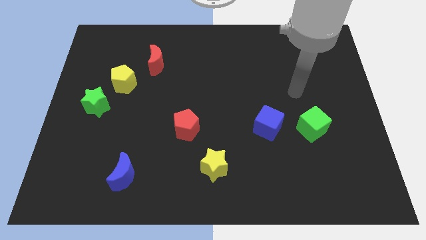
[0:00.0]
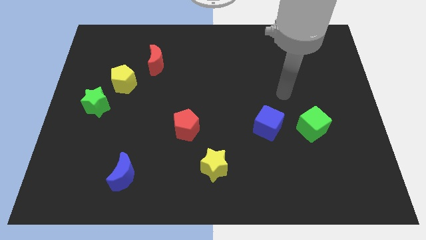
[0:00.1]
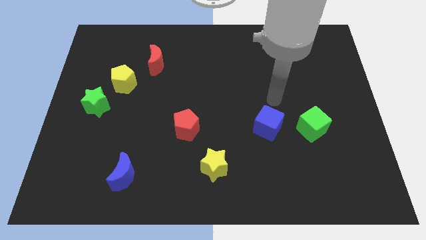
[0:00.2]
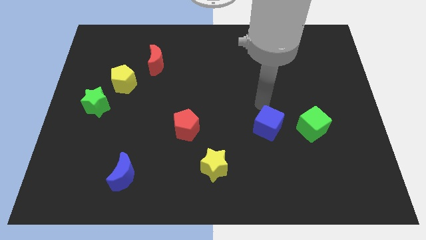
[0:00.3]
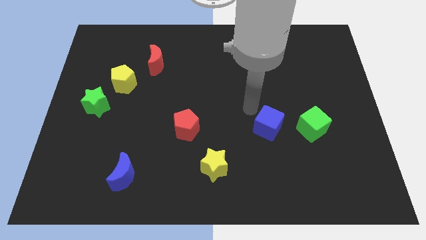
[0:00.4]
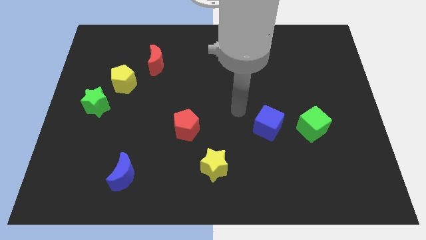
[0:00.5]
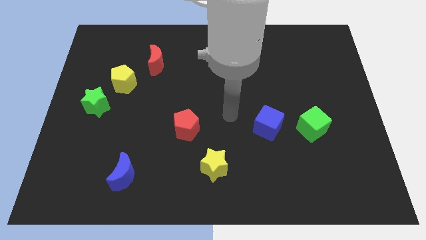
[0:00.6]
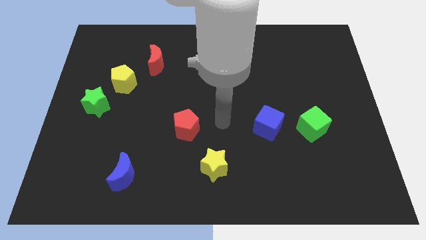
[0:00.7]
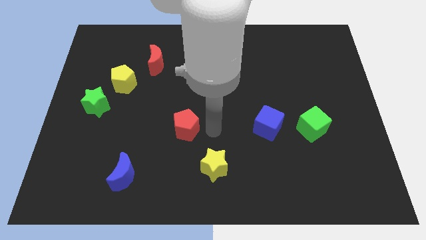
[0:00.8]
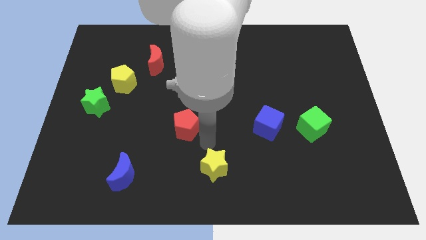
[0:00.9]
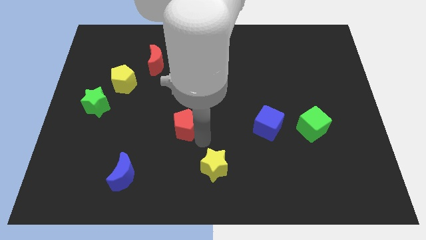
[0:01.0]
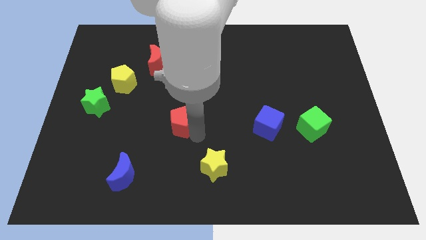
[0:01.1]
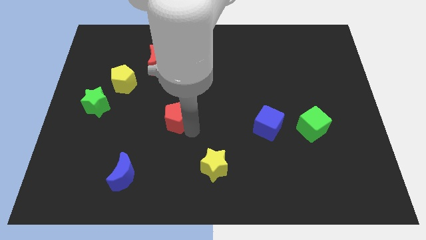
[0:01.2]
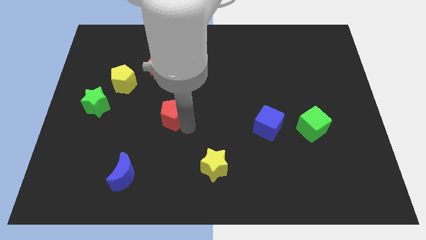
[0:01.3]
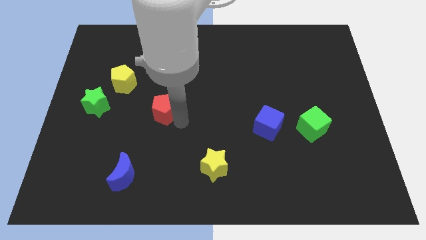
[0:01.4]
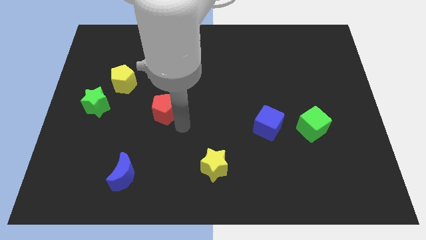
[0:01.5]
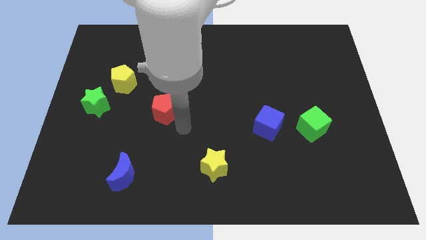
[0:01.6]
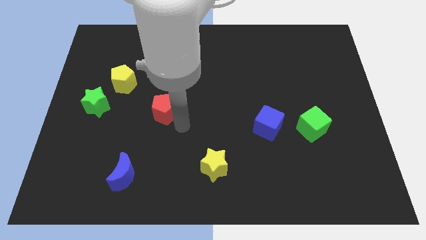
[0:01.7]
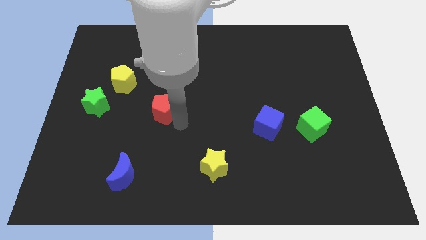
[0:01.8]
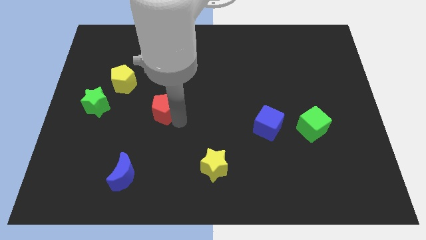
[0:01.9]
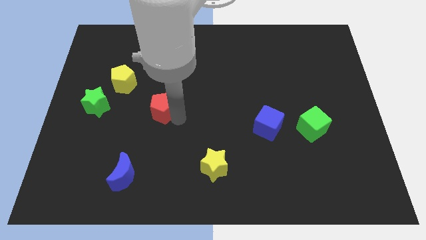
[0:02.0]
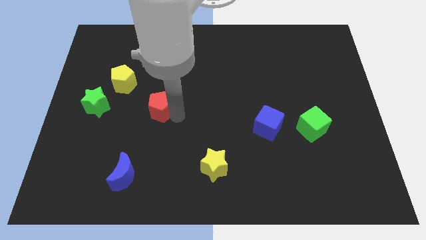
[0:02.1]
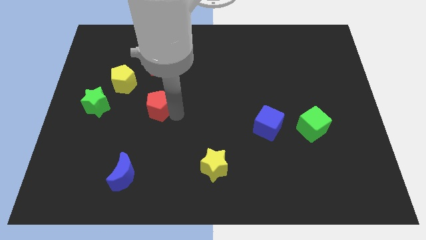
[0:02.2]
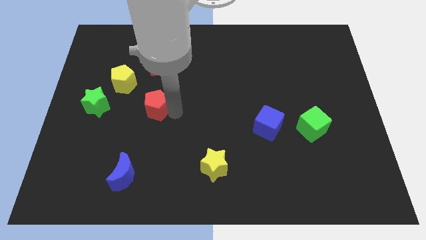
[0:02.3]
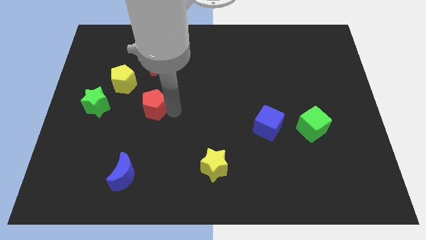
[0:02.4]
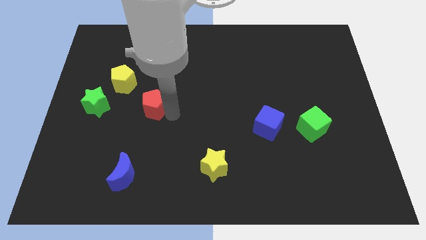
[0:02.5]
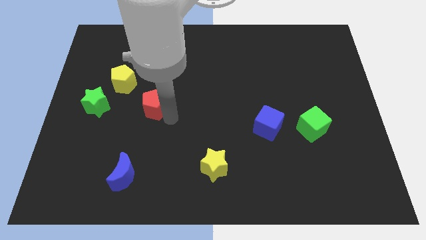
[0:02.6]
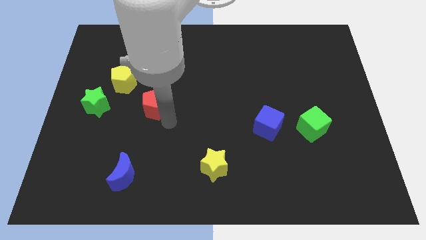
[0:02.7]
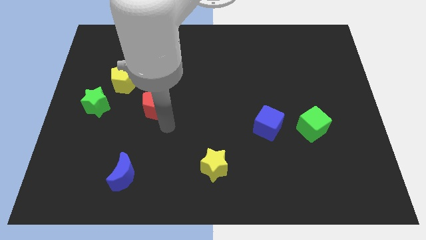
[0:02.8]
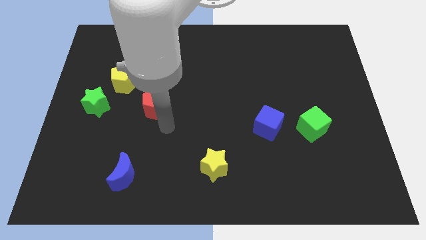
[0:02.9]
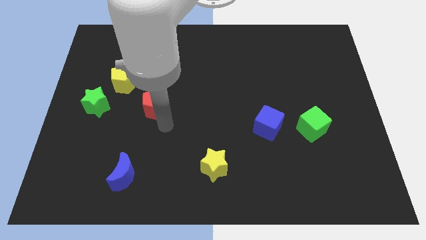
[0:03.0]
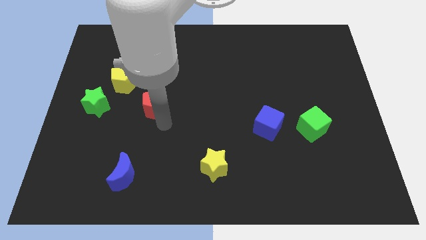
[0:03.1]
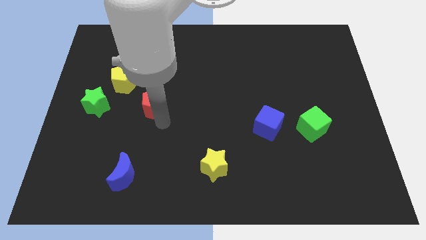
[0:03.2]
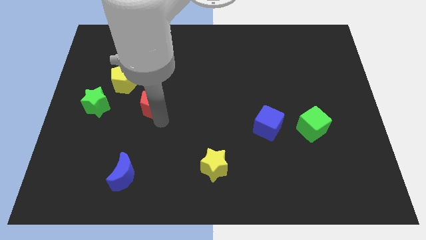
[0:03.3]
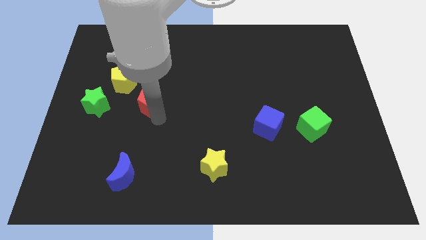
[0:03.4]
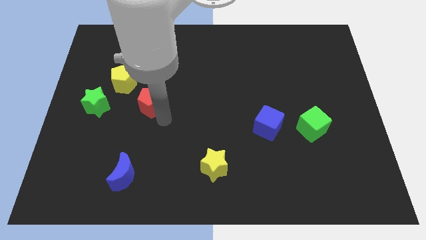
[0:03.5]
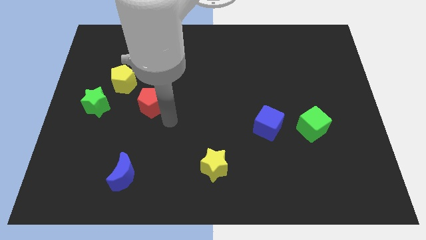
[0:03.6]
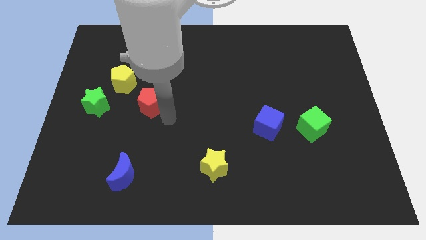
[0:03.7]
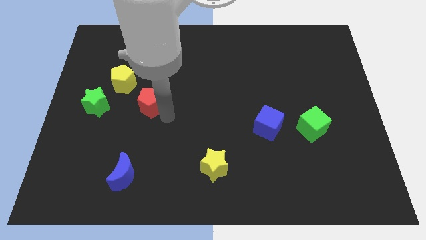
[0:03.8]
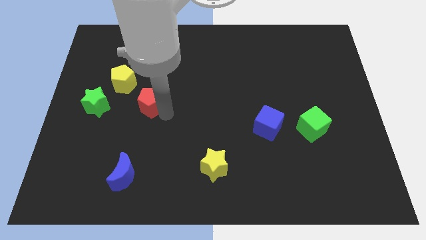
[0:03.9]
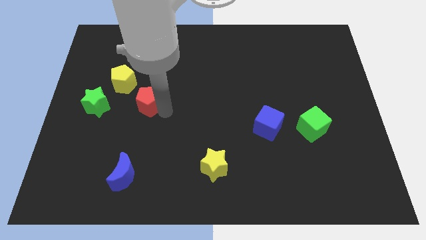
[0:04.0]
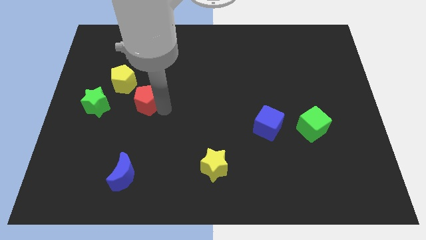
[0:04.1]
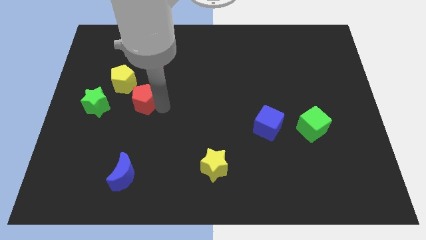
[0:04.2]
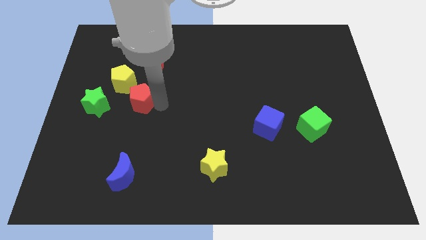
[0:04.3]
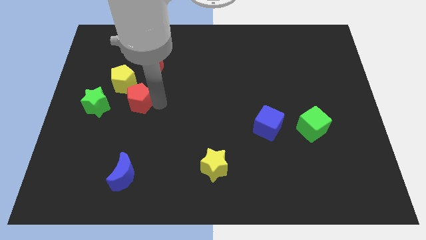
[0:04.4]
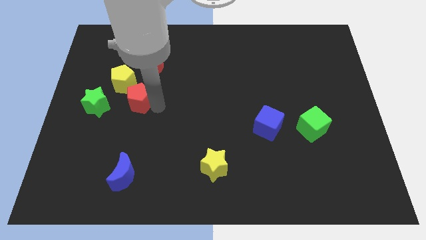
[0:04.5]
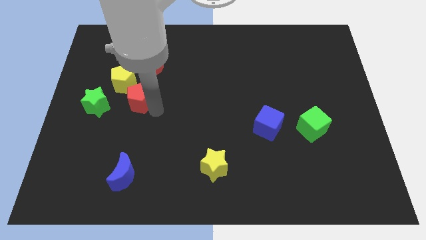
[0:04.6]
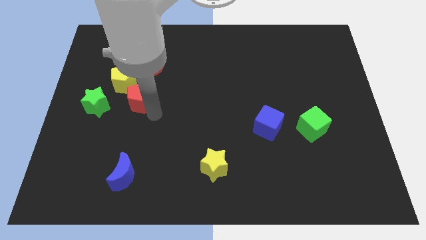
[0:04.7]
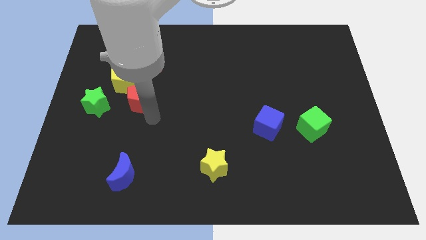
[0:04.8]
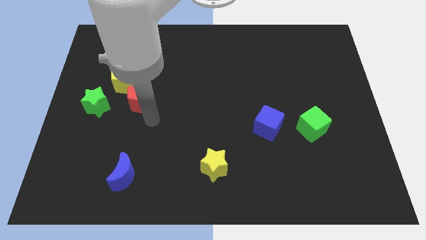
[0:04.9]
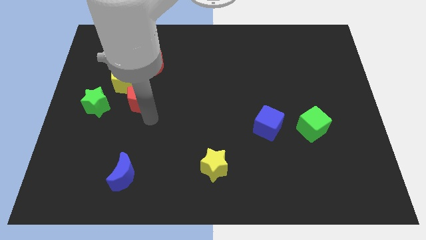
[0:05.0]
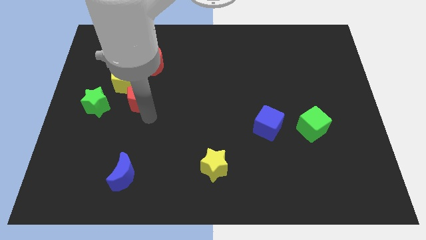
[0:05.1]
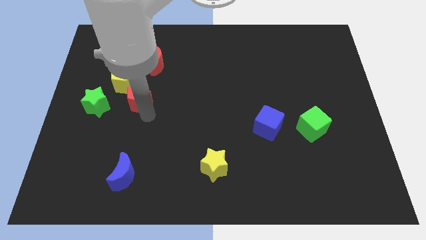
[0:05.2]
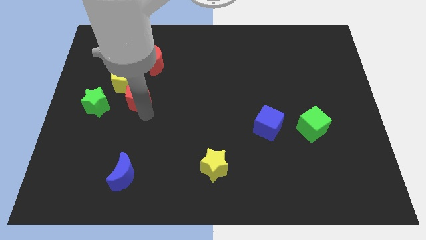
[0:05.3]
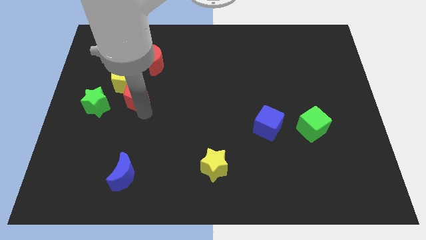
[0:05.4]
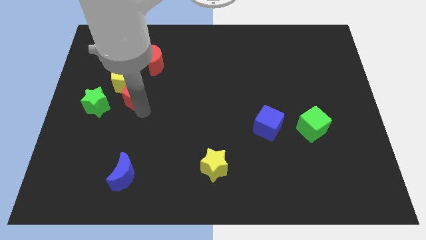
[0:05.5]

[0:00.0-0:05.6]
put the red pentagon next to the yellow pentagon
